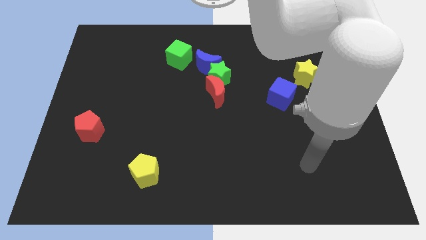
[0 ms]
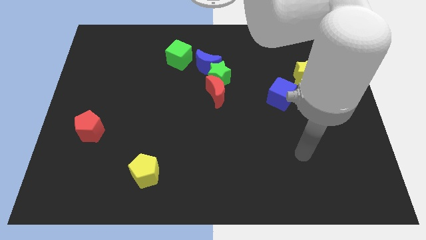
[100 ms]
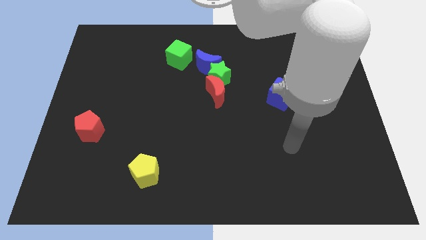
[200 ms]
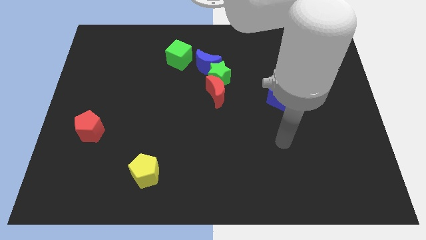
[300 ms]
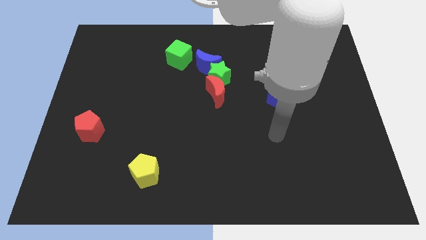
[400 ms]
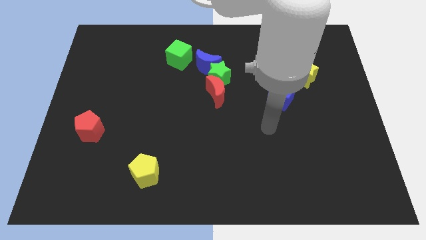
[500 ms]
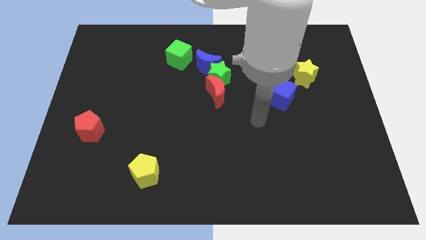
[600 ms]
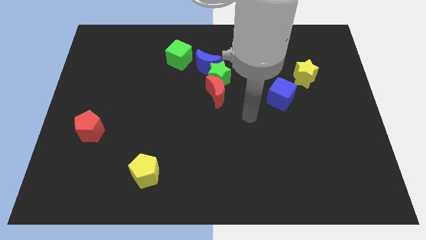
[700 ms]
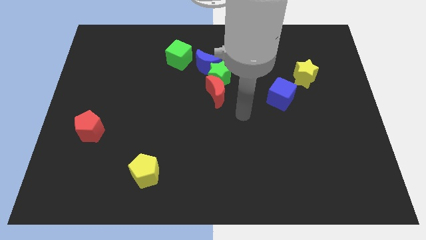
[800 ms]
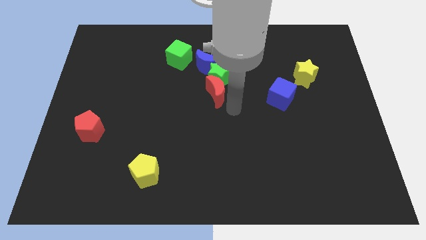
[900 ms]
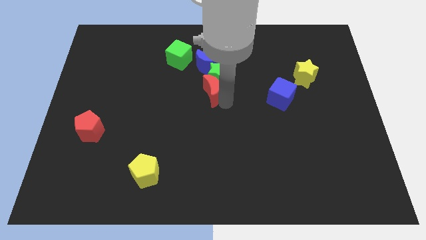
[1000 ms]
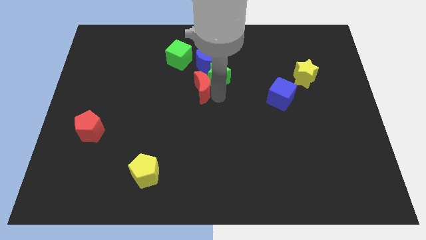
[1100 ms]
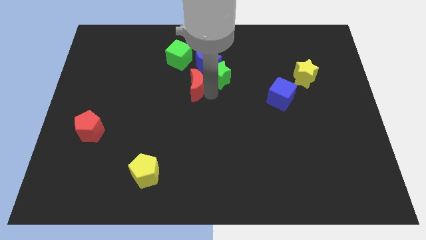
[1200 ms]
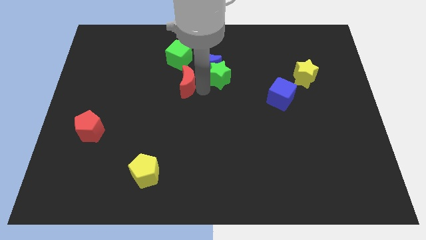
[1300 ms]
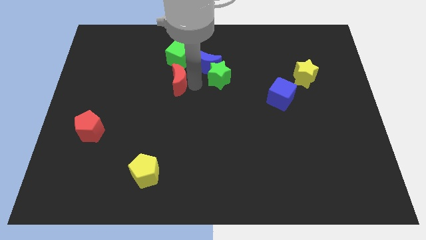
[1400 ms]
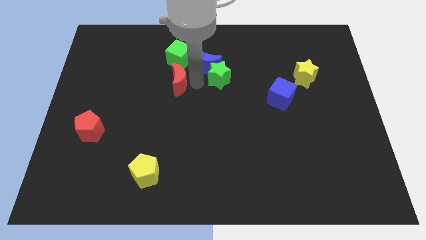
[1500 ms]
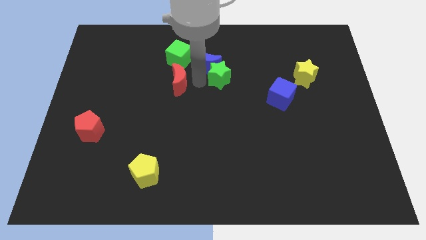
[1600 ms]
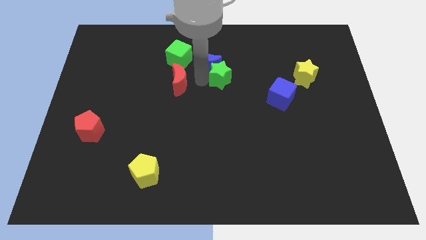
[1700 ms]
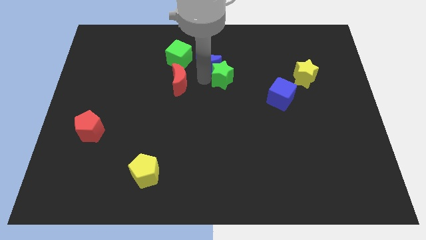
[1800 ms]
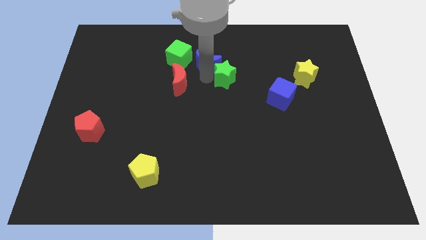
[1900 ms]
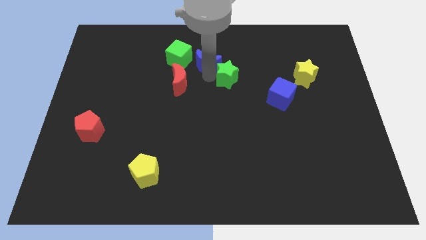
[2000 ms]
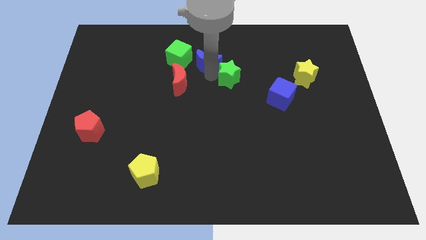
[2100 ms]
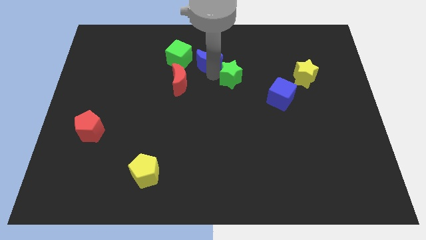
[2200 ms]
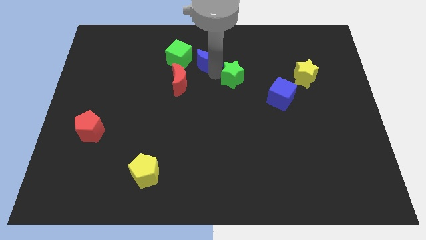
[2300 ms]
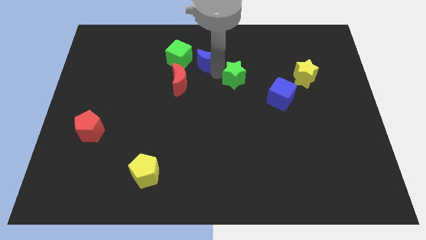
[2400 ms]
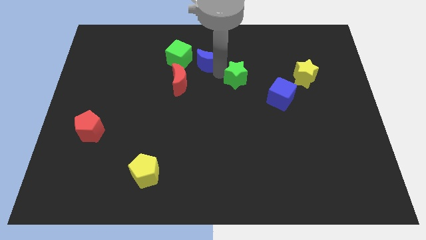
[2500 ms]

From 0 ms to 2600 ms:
move the green star away from the blue moon and red moon

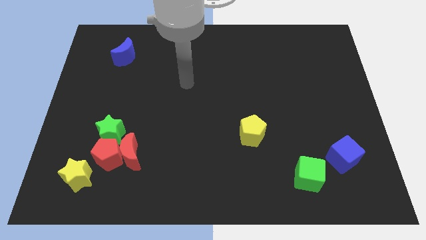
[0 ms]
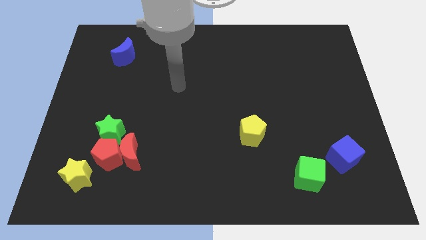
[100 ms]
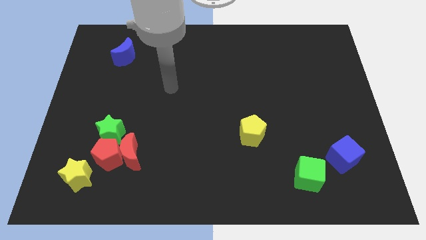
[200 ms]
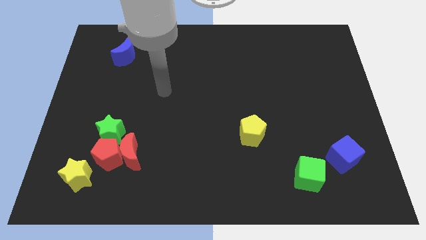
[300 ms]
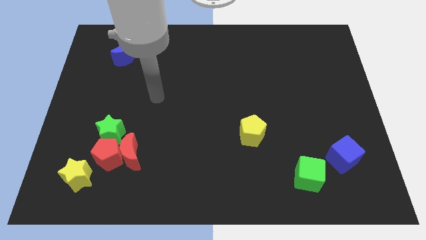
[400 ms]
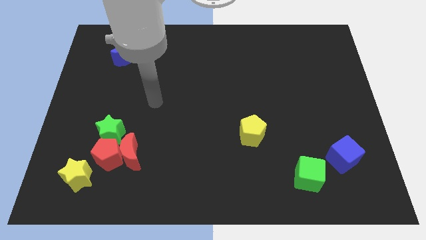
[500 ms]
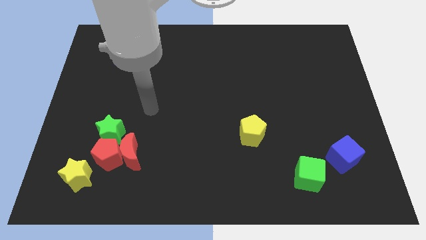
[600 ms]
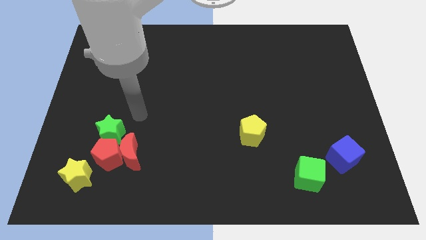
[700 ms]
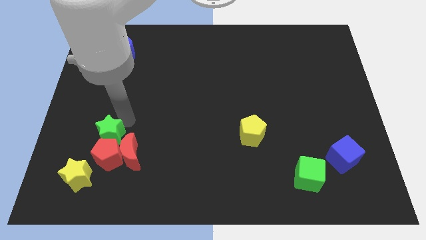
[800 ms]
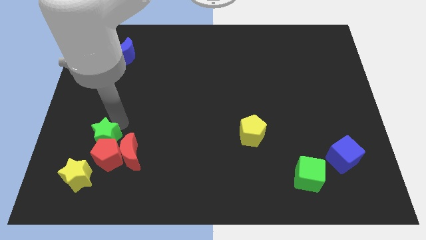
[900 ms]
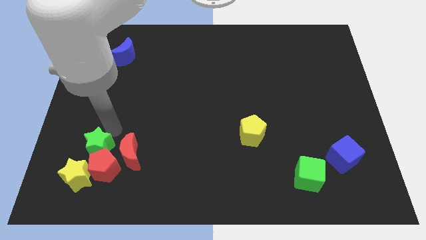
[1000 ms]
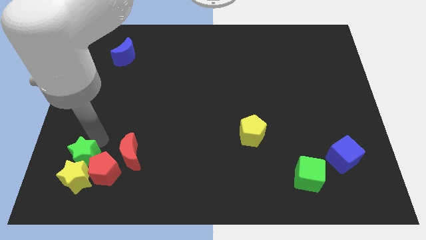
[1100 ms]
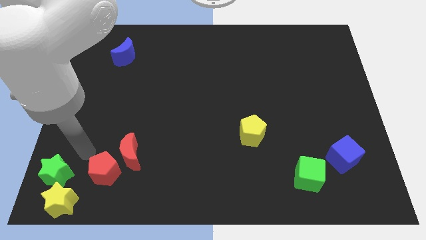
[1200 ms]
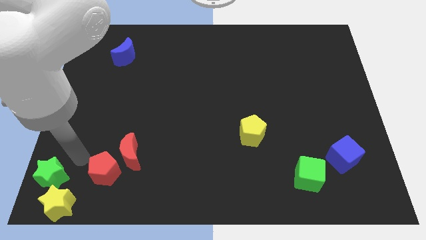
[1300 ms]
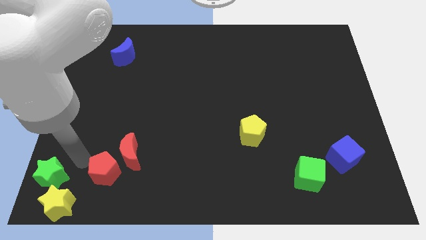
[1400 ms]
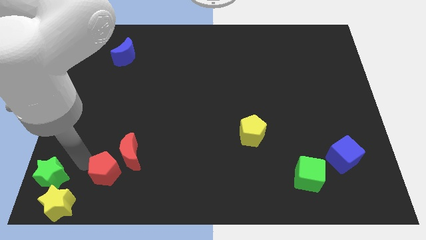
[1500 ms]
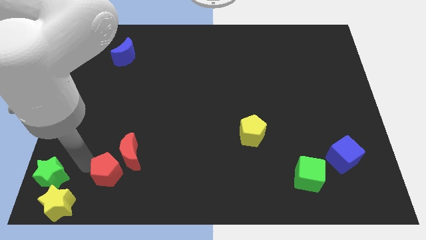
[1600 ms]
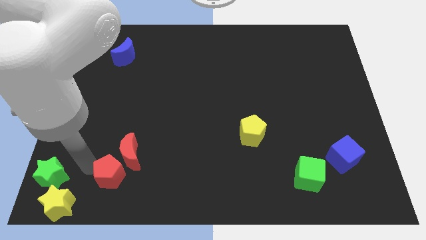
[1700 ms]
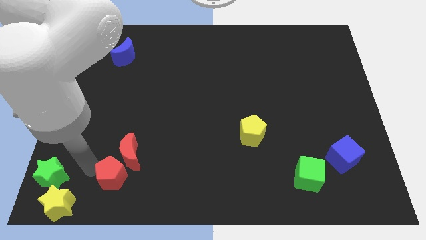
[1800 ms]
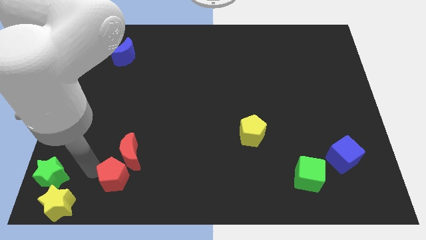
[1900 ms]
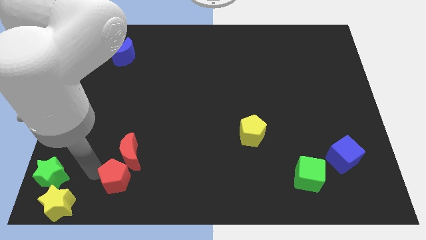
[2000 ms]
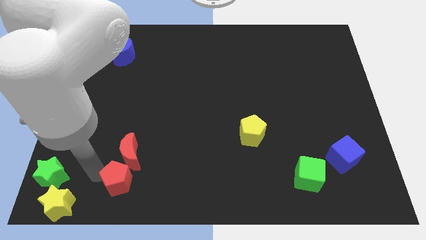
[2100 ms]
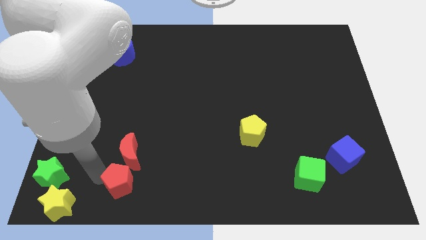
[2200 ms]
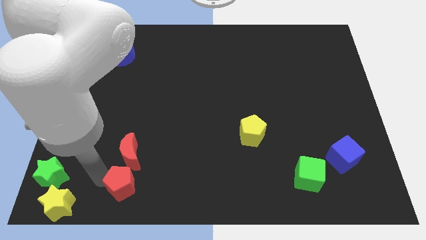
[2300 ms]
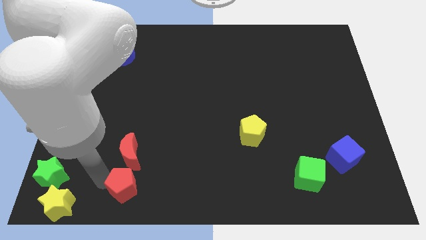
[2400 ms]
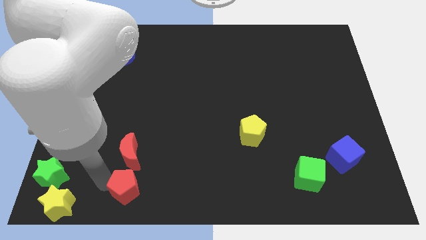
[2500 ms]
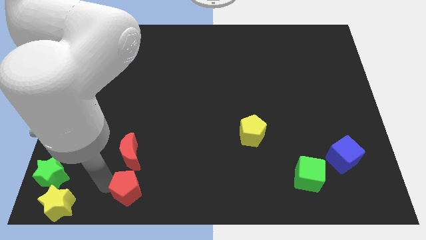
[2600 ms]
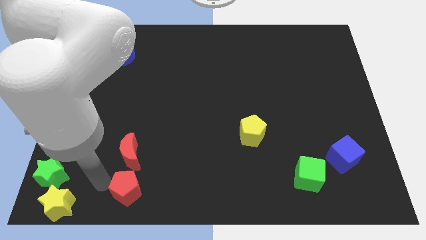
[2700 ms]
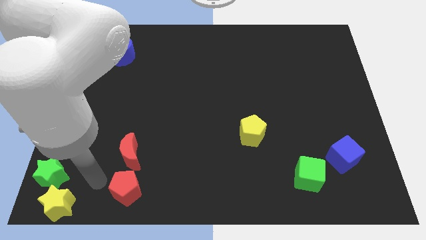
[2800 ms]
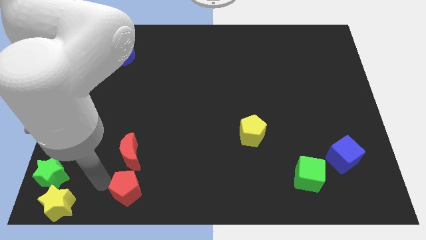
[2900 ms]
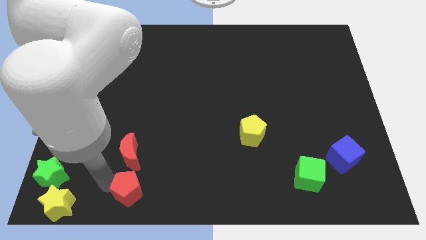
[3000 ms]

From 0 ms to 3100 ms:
separate the red pentagon from the clump

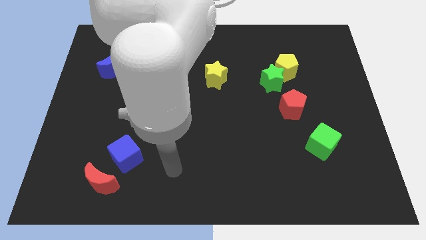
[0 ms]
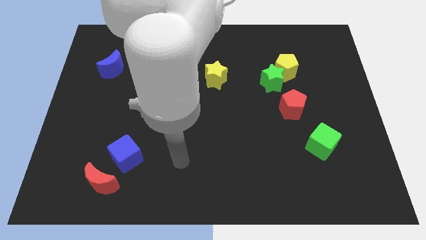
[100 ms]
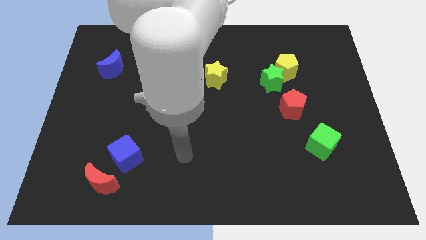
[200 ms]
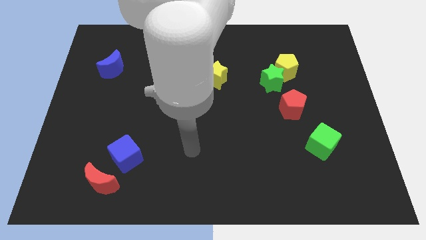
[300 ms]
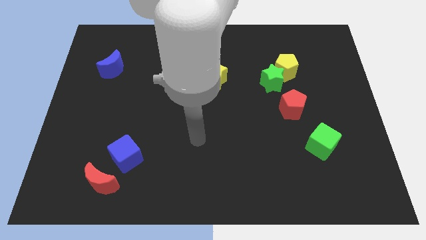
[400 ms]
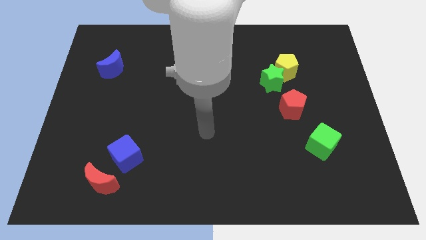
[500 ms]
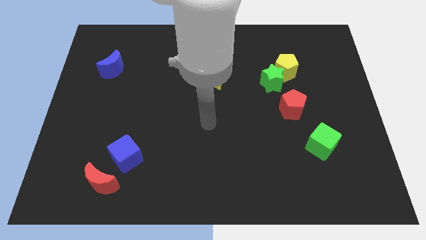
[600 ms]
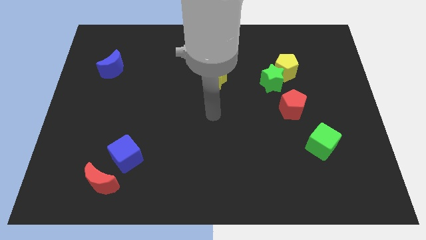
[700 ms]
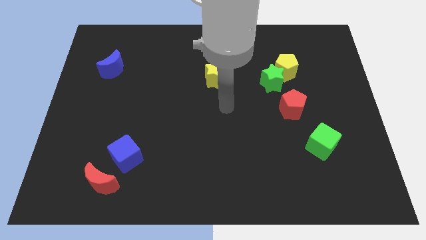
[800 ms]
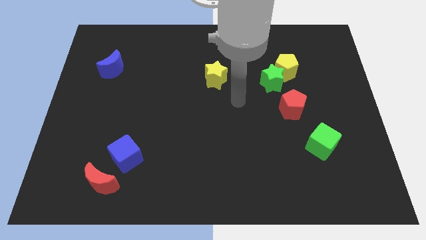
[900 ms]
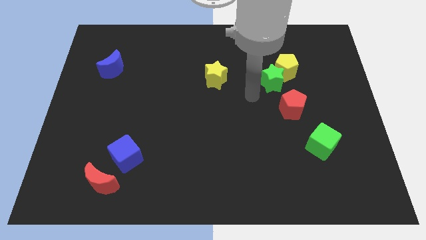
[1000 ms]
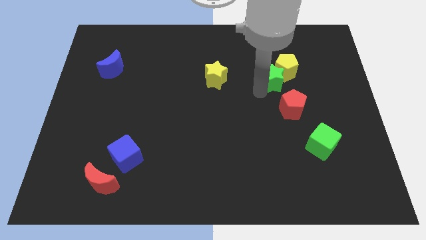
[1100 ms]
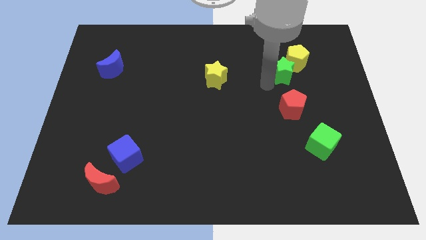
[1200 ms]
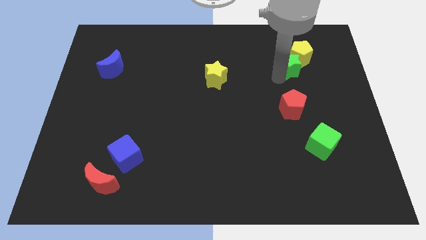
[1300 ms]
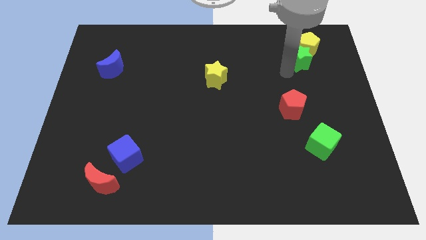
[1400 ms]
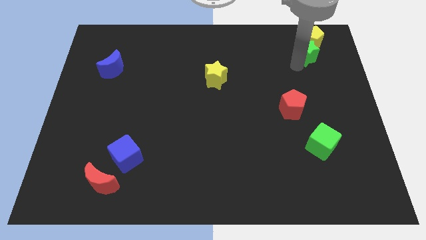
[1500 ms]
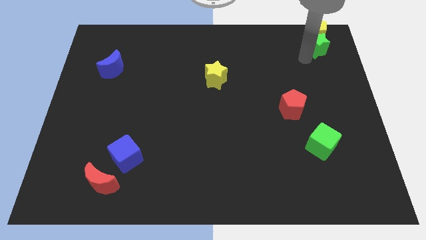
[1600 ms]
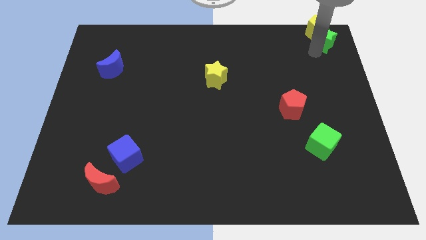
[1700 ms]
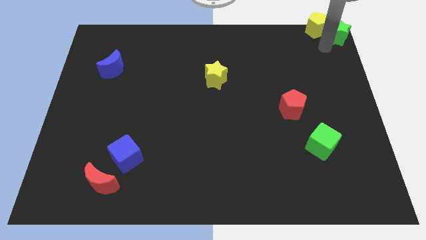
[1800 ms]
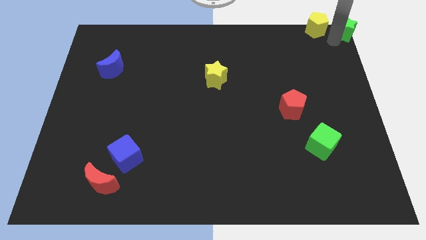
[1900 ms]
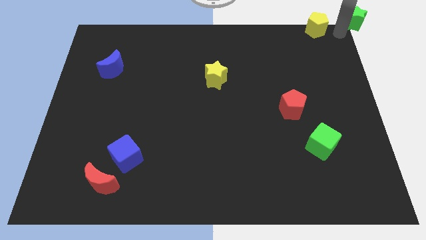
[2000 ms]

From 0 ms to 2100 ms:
move the yellow pentagon away from the green star

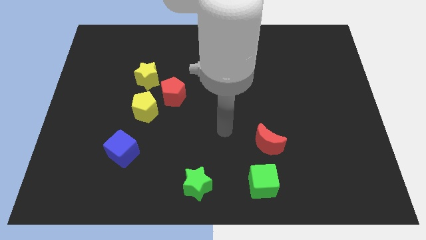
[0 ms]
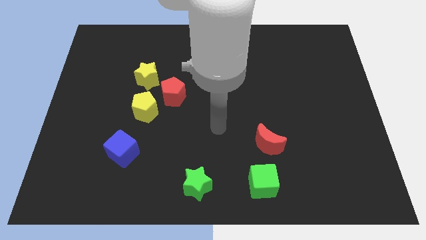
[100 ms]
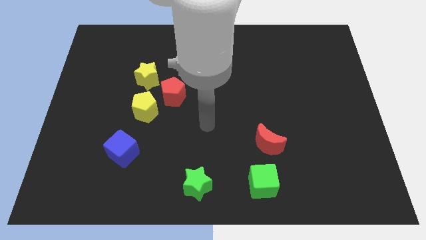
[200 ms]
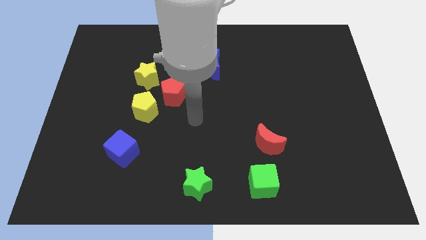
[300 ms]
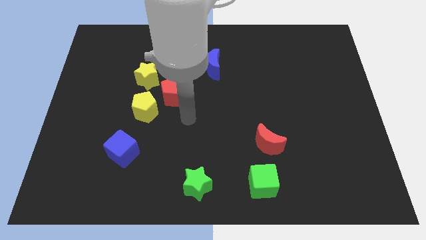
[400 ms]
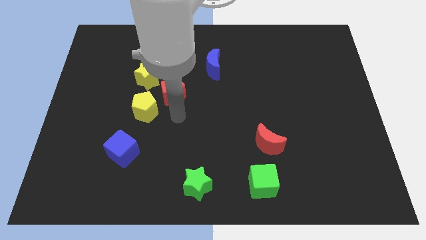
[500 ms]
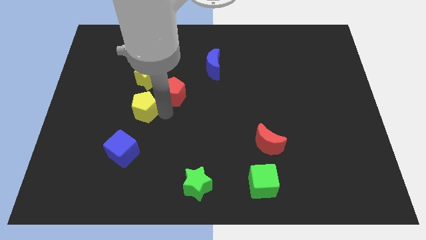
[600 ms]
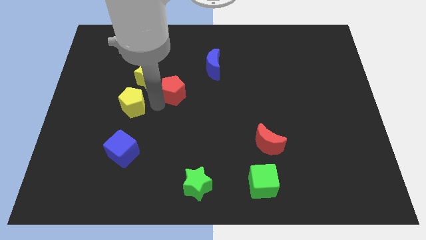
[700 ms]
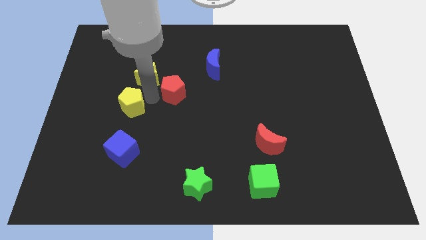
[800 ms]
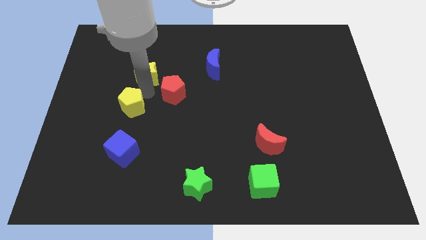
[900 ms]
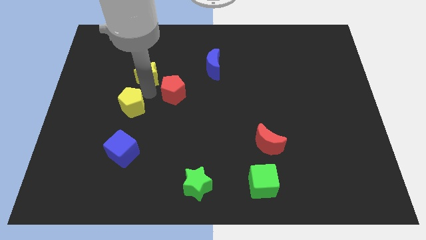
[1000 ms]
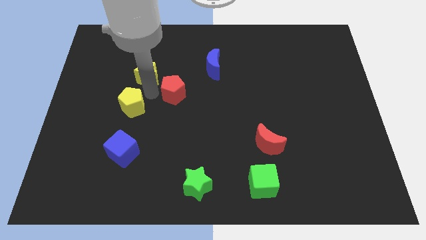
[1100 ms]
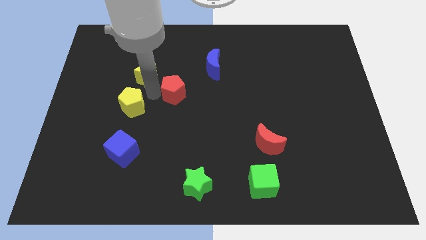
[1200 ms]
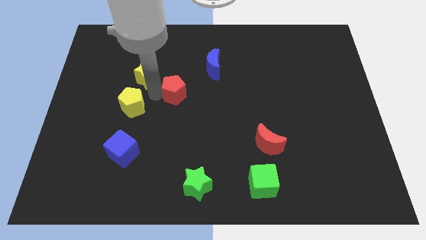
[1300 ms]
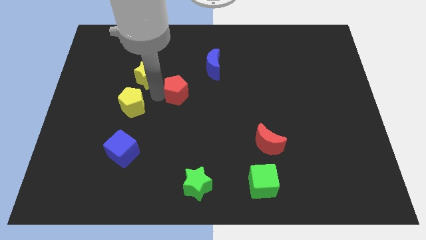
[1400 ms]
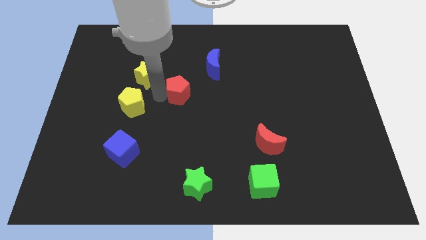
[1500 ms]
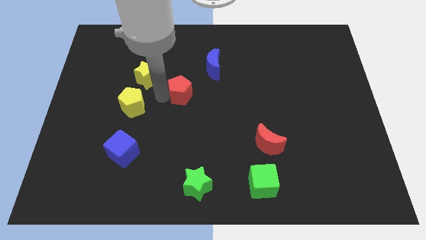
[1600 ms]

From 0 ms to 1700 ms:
pull the red pentagon apart from the yellow pentagon and yellow star

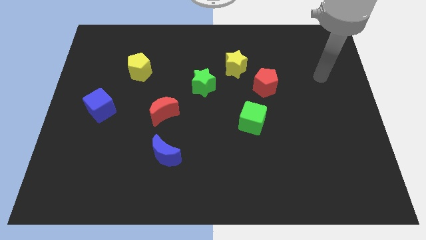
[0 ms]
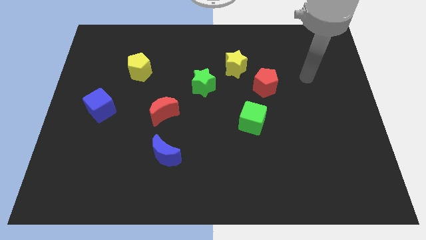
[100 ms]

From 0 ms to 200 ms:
pull the red pentagon apart from the yellow star
